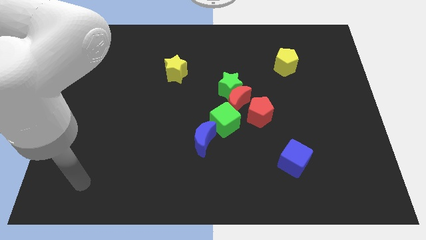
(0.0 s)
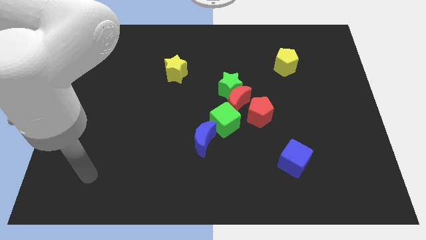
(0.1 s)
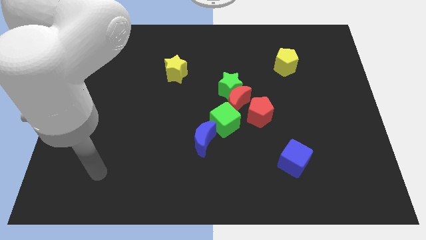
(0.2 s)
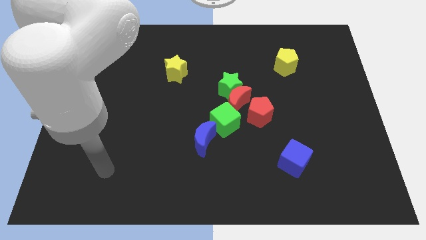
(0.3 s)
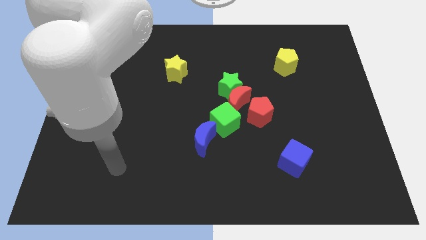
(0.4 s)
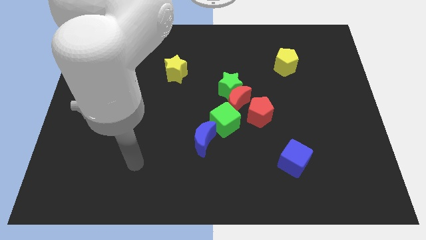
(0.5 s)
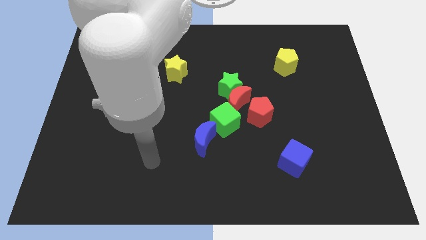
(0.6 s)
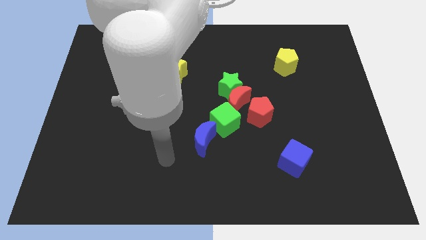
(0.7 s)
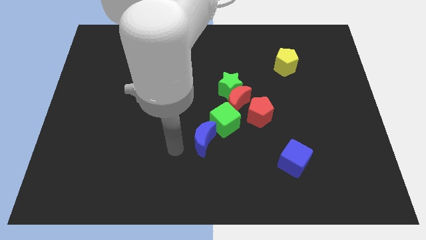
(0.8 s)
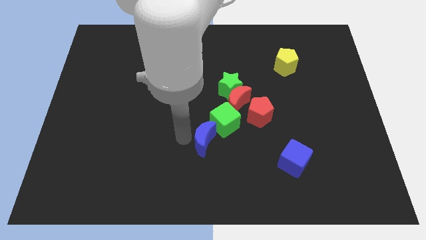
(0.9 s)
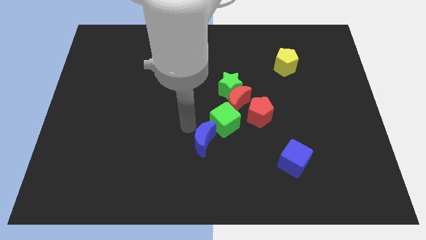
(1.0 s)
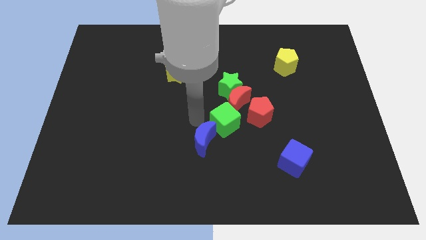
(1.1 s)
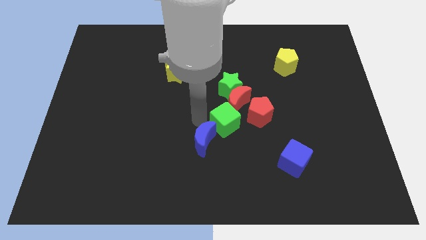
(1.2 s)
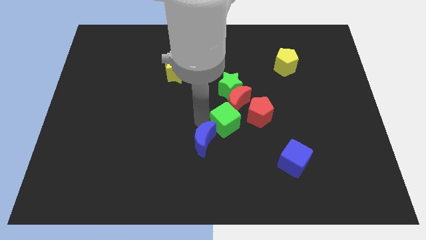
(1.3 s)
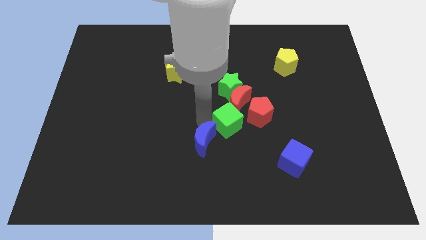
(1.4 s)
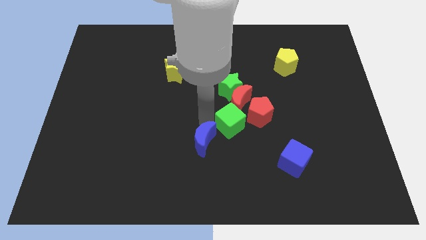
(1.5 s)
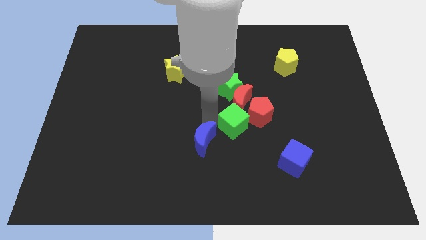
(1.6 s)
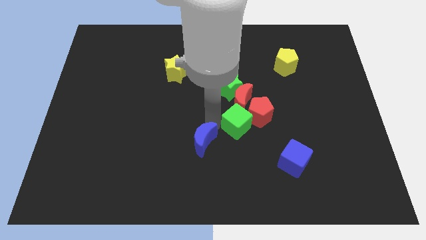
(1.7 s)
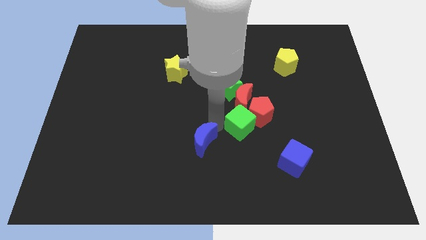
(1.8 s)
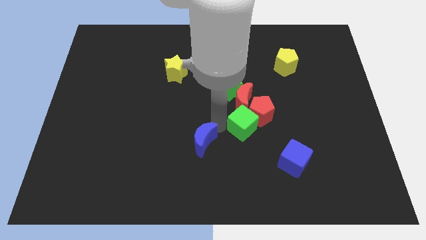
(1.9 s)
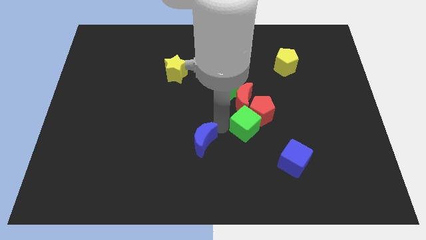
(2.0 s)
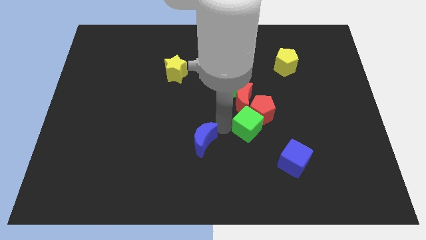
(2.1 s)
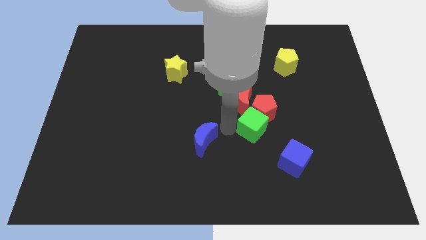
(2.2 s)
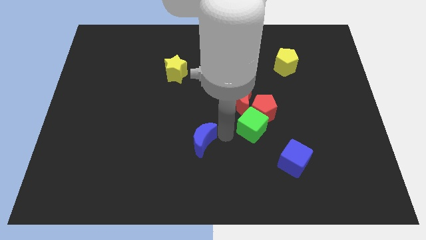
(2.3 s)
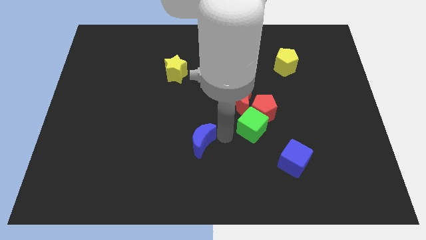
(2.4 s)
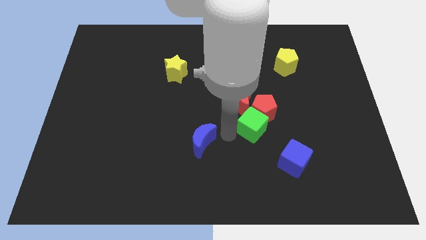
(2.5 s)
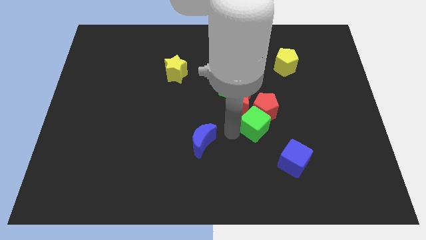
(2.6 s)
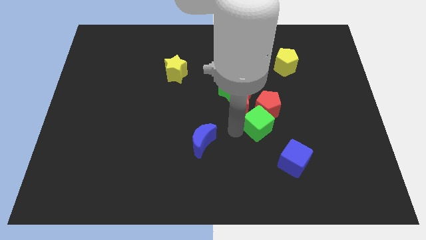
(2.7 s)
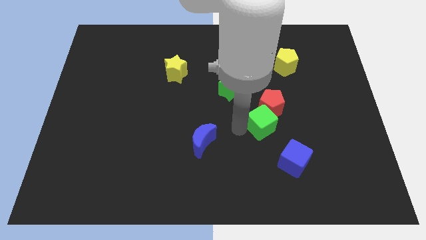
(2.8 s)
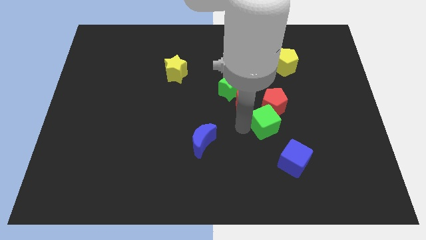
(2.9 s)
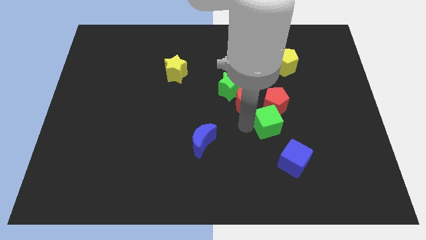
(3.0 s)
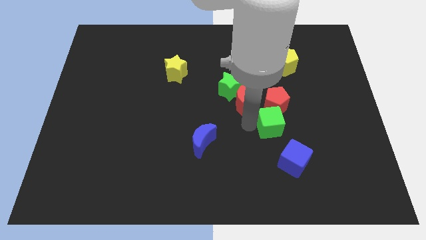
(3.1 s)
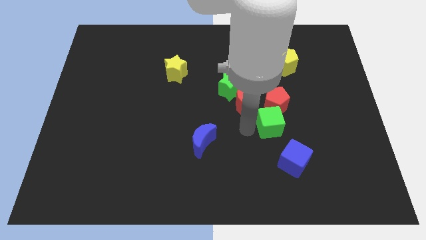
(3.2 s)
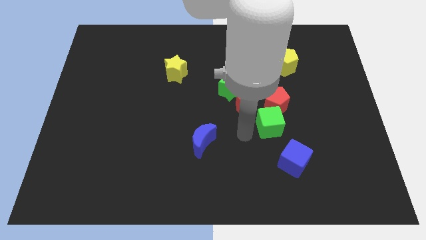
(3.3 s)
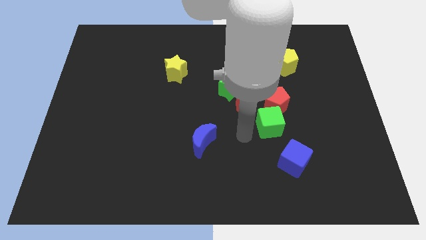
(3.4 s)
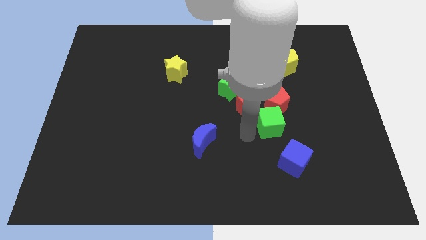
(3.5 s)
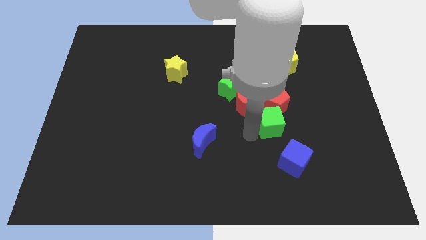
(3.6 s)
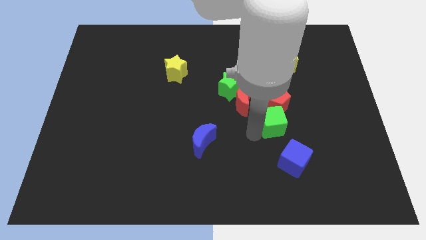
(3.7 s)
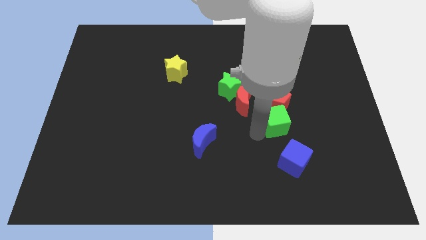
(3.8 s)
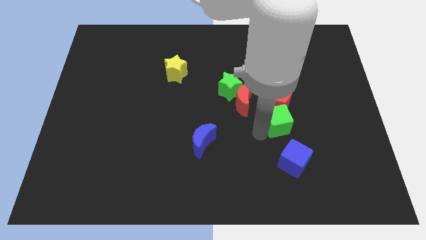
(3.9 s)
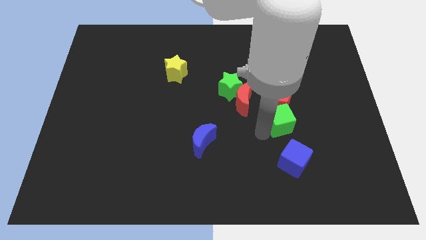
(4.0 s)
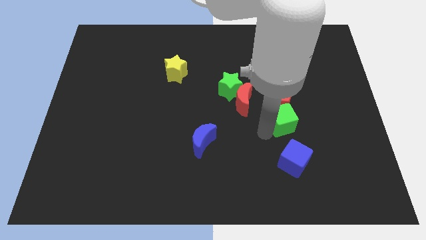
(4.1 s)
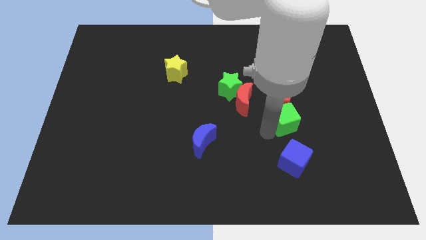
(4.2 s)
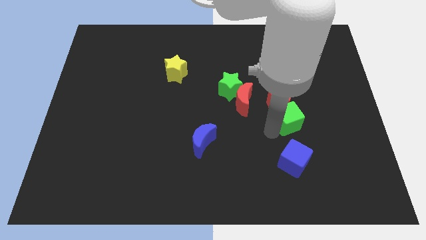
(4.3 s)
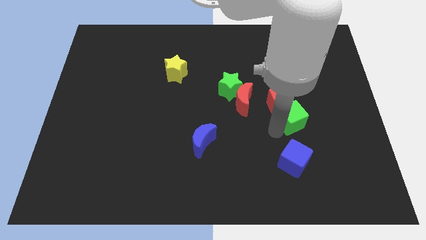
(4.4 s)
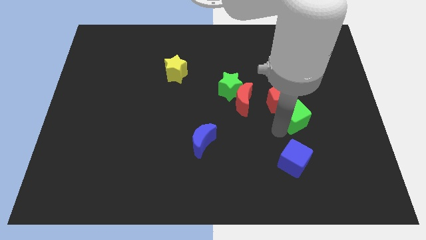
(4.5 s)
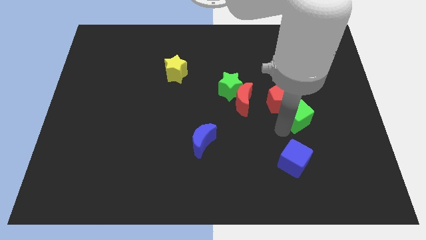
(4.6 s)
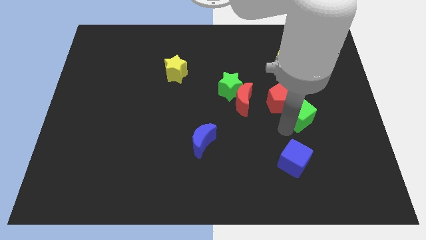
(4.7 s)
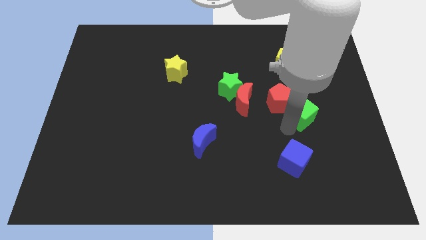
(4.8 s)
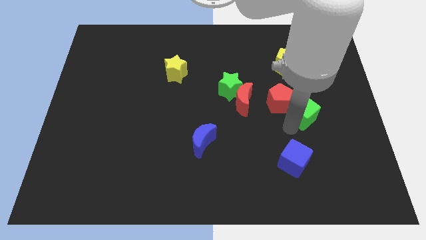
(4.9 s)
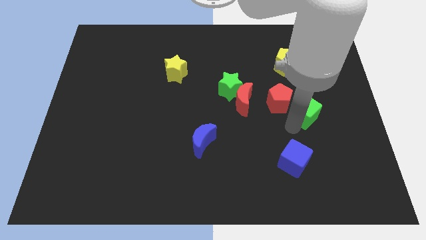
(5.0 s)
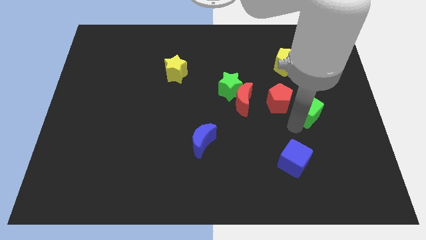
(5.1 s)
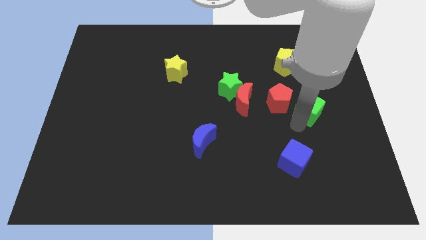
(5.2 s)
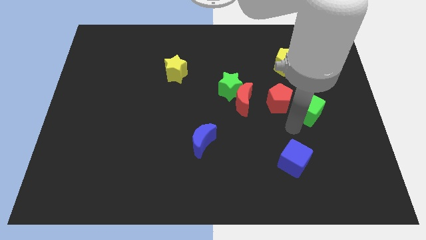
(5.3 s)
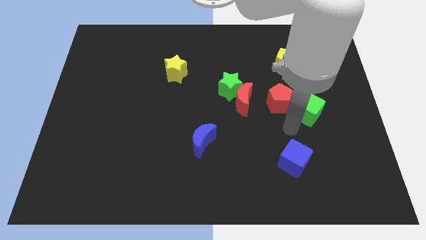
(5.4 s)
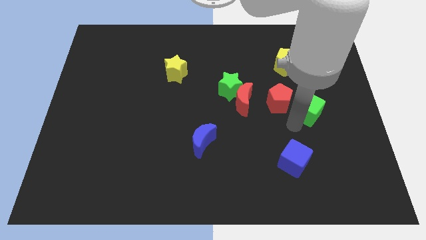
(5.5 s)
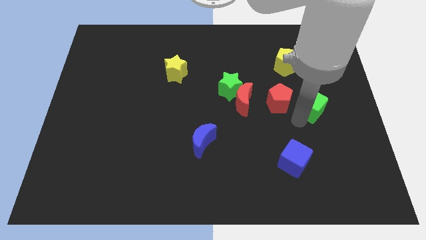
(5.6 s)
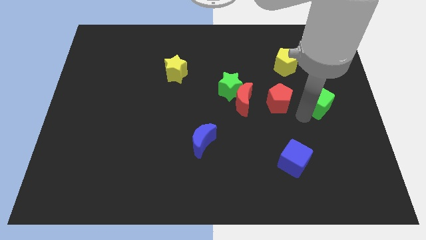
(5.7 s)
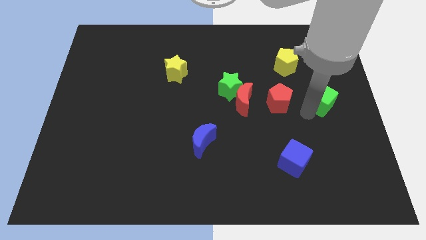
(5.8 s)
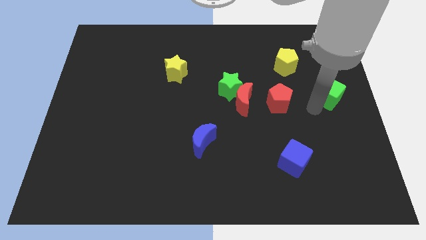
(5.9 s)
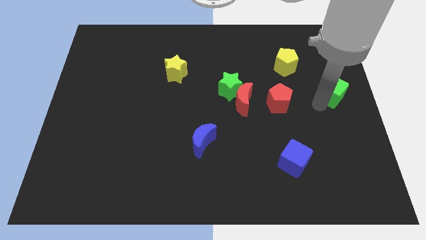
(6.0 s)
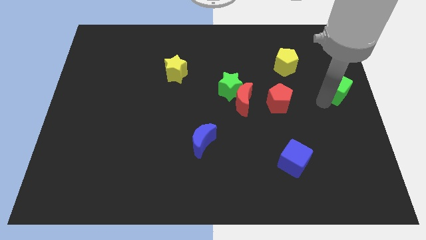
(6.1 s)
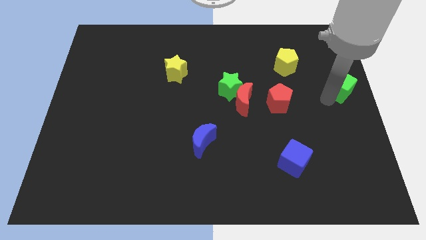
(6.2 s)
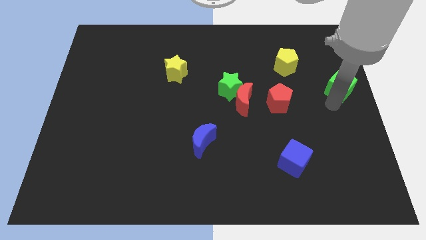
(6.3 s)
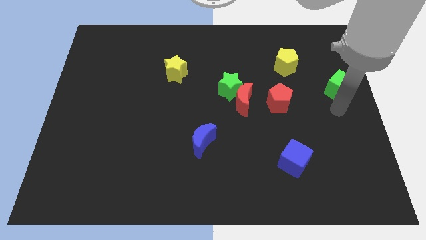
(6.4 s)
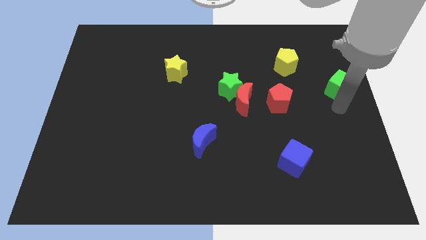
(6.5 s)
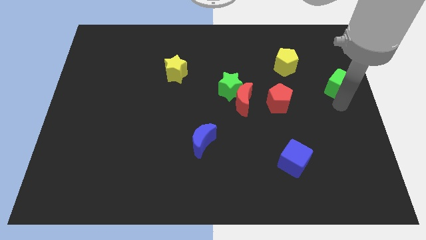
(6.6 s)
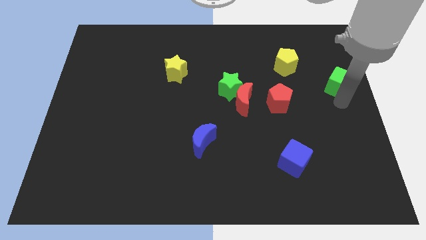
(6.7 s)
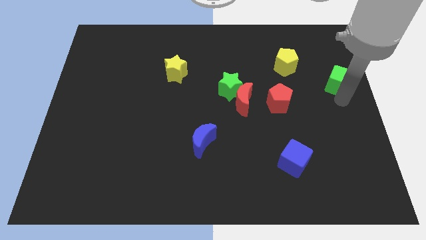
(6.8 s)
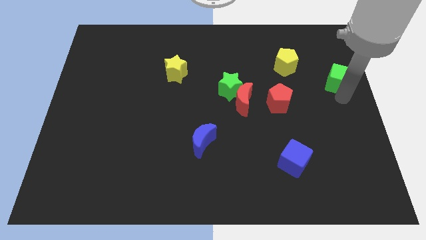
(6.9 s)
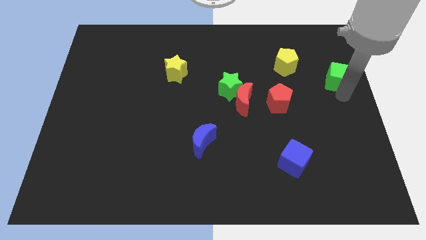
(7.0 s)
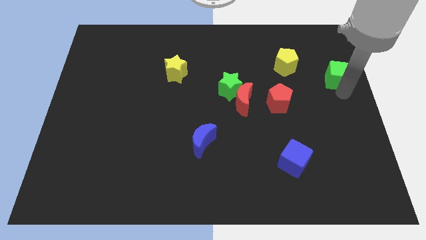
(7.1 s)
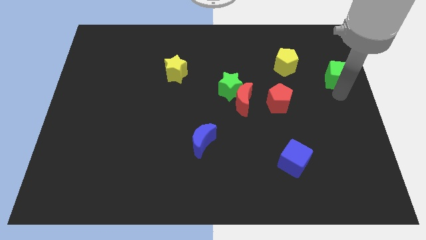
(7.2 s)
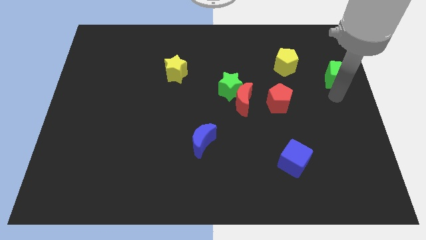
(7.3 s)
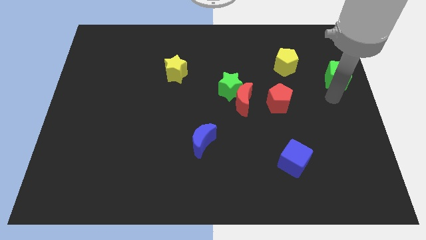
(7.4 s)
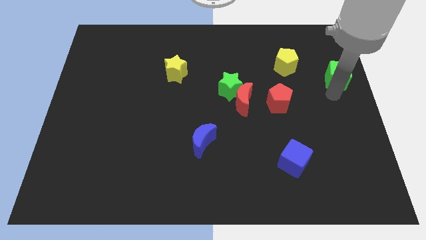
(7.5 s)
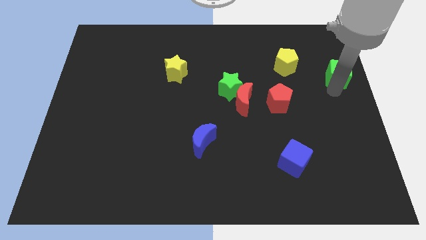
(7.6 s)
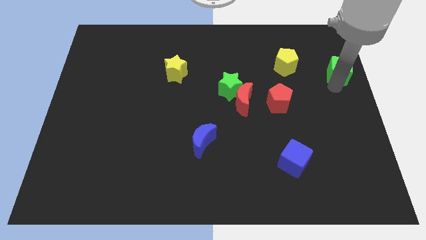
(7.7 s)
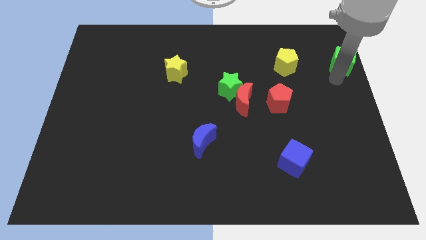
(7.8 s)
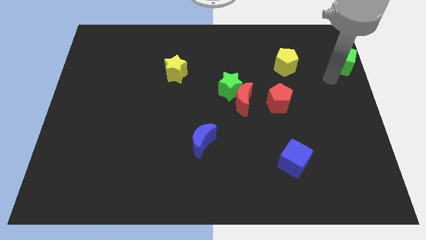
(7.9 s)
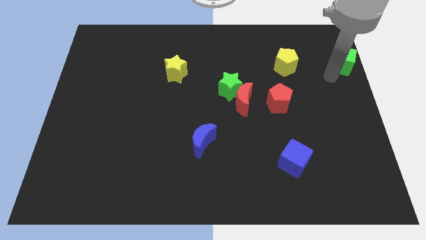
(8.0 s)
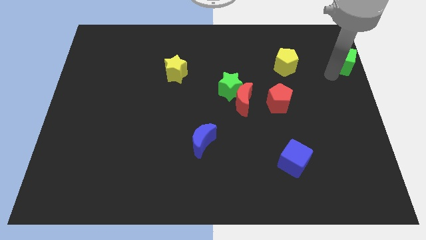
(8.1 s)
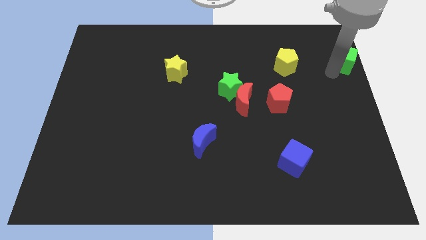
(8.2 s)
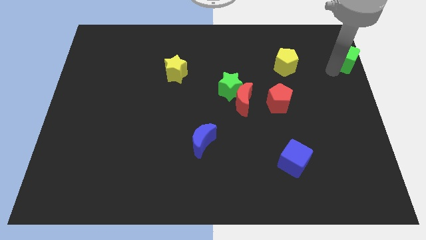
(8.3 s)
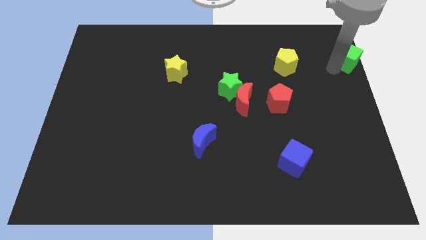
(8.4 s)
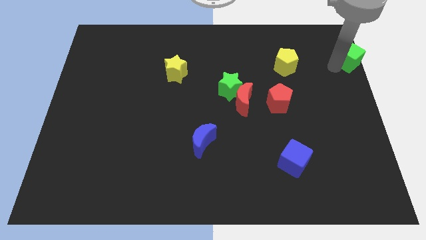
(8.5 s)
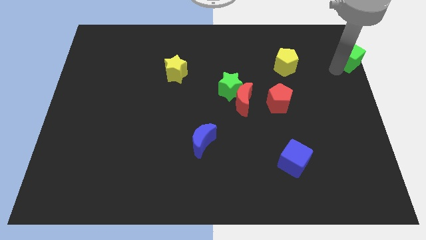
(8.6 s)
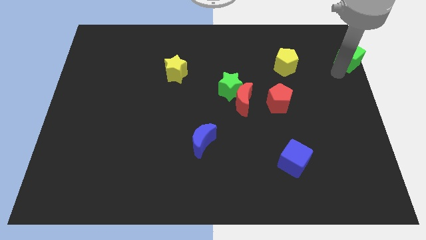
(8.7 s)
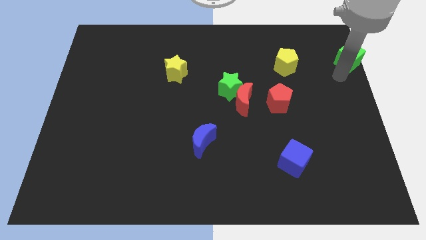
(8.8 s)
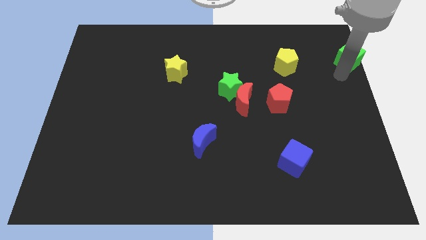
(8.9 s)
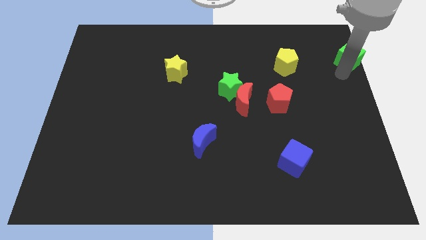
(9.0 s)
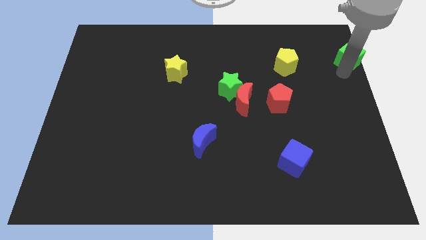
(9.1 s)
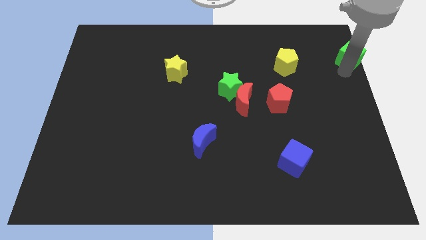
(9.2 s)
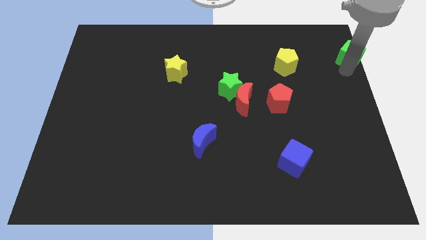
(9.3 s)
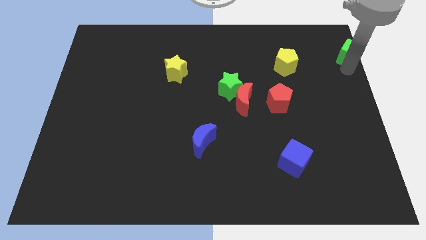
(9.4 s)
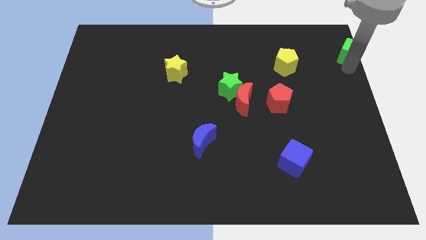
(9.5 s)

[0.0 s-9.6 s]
put the green cube to the top right
